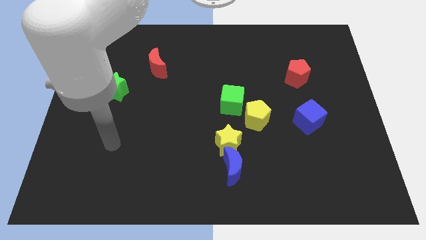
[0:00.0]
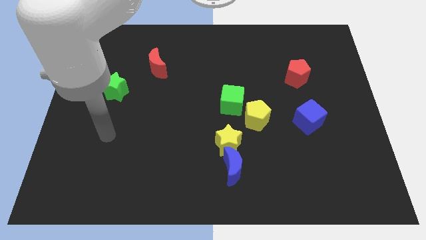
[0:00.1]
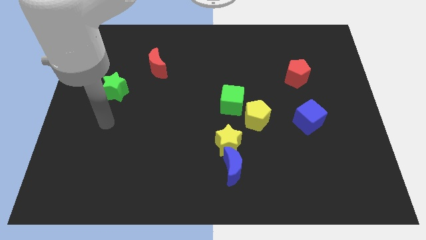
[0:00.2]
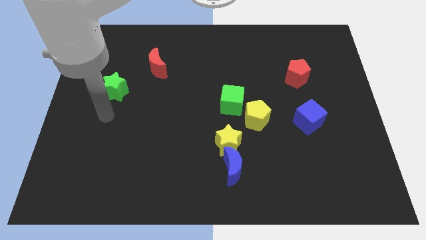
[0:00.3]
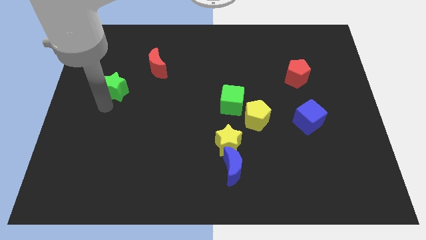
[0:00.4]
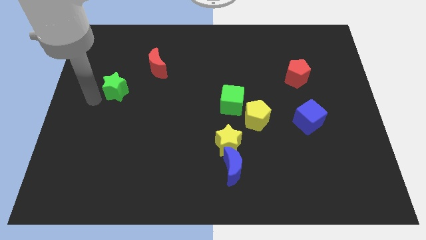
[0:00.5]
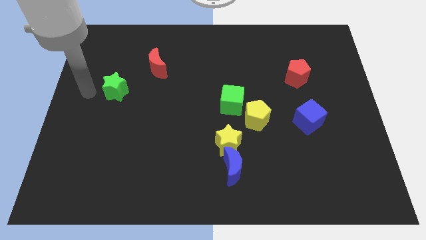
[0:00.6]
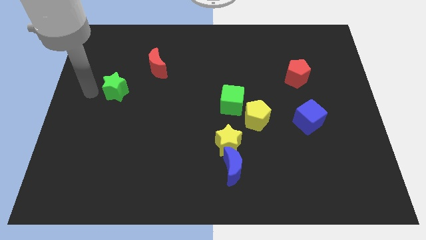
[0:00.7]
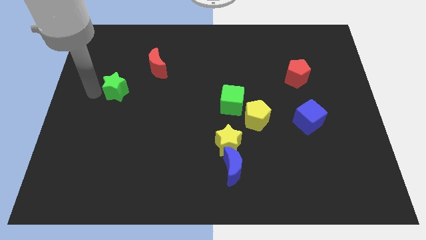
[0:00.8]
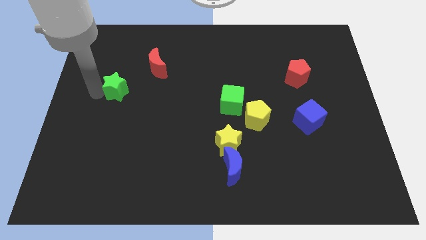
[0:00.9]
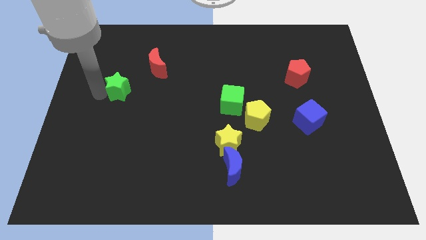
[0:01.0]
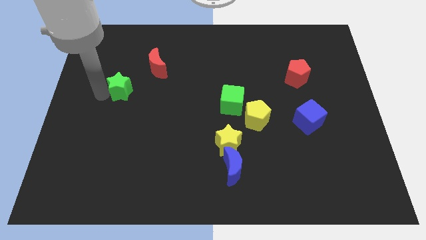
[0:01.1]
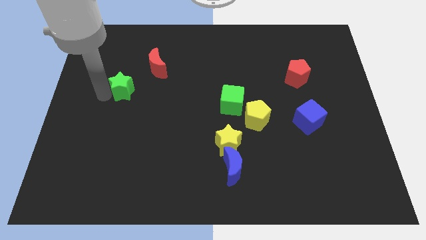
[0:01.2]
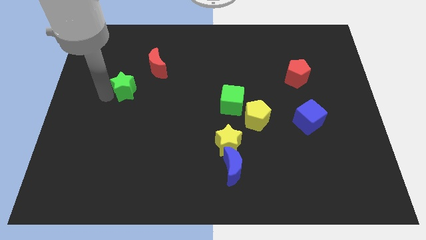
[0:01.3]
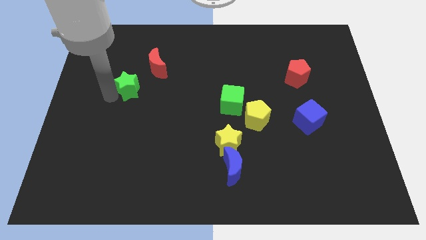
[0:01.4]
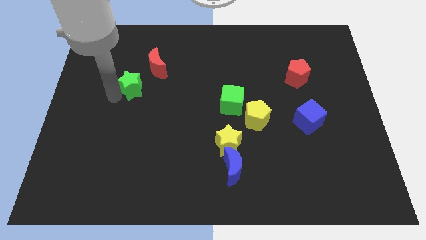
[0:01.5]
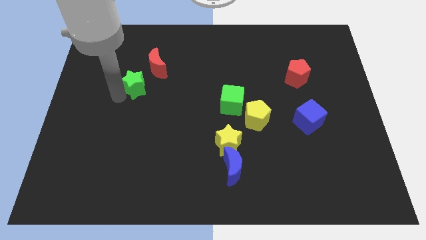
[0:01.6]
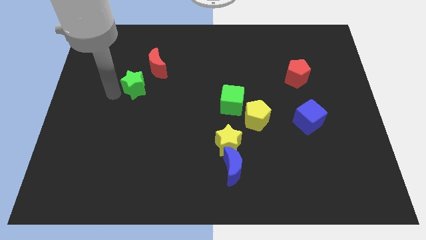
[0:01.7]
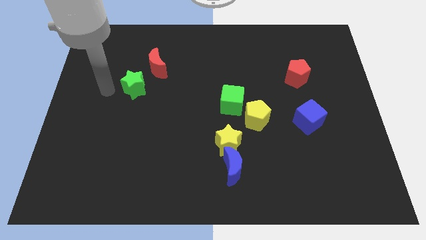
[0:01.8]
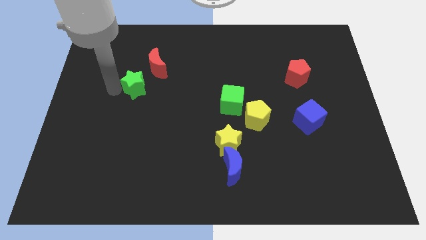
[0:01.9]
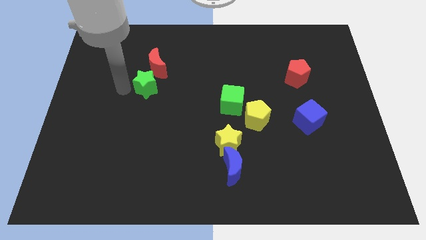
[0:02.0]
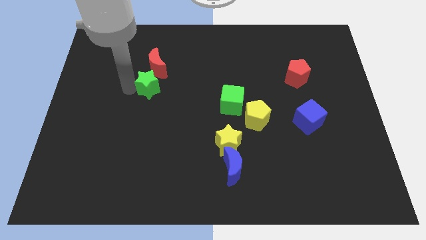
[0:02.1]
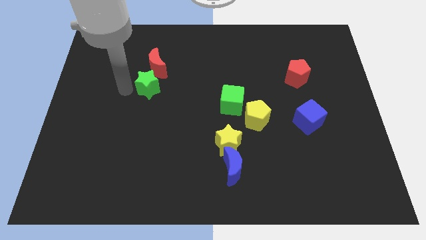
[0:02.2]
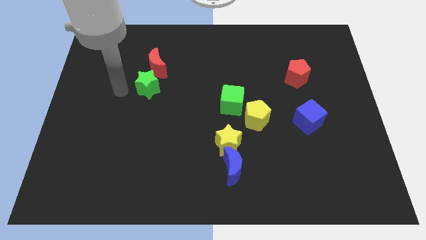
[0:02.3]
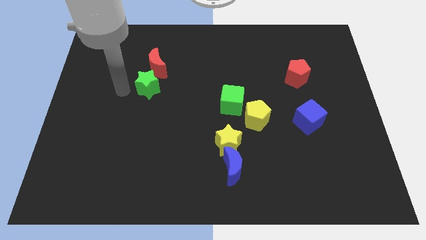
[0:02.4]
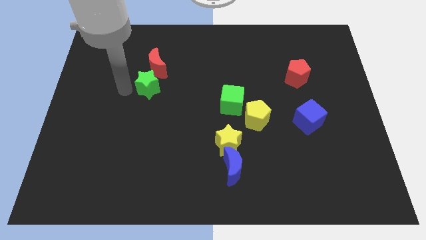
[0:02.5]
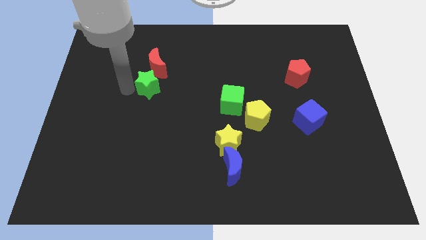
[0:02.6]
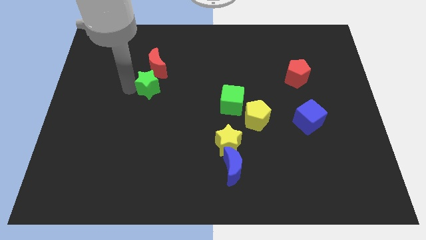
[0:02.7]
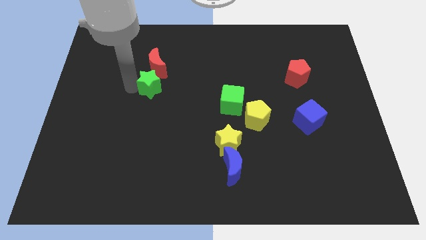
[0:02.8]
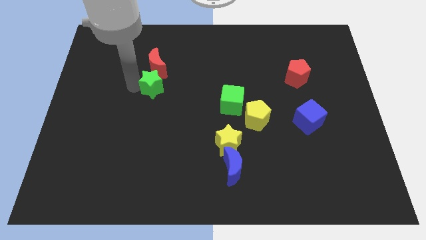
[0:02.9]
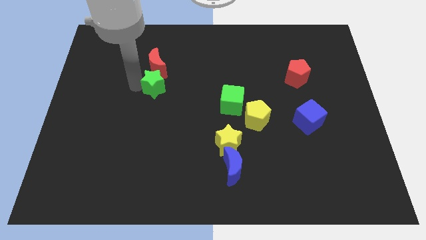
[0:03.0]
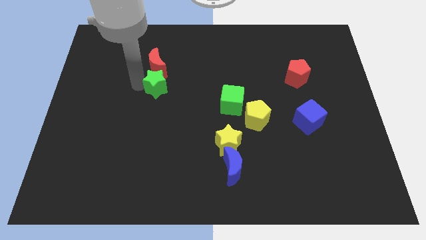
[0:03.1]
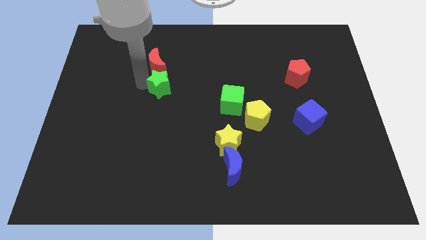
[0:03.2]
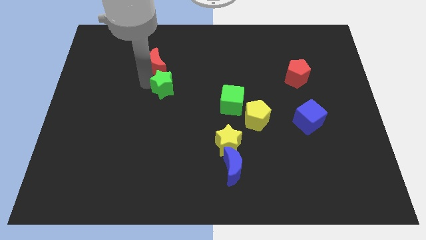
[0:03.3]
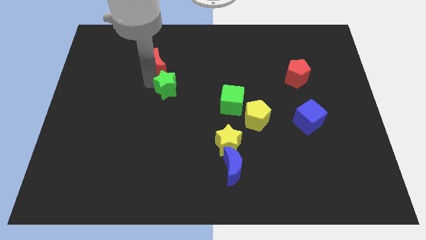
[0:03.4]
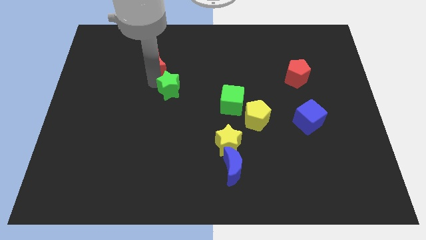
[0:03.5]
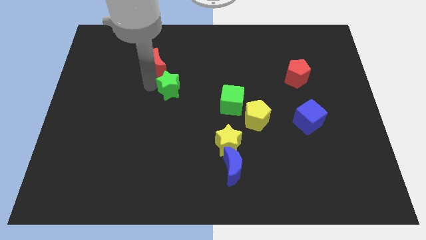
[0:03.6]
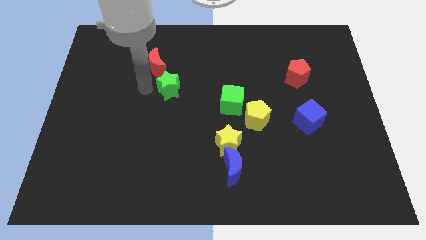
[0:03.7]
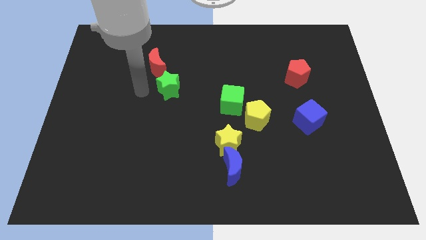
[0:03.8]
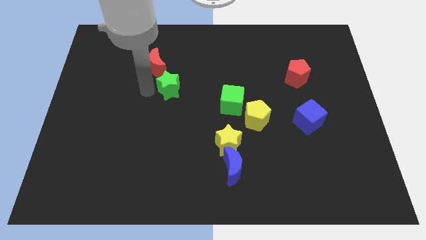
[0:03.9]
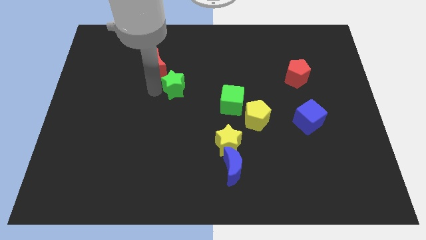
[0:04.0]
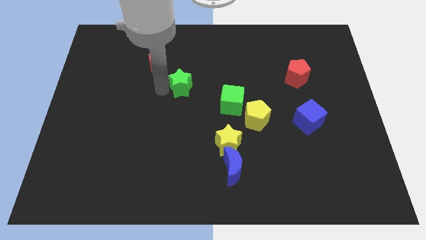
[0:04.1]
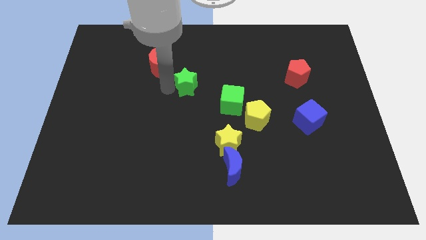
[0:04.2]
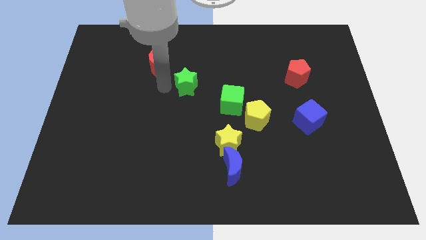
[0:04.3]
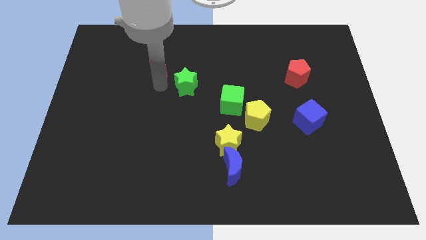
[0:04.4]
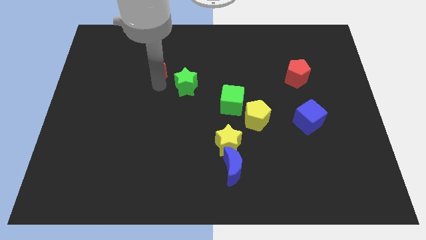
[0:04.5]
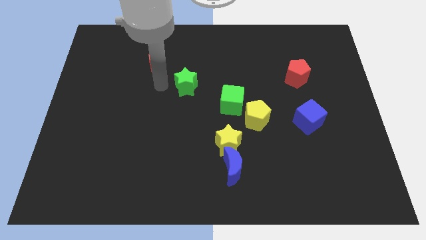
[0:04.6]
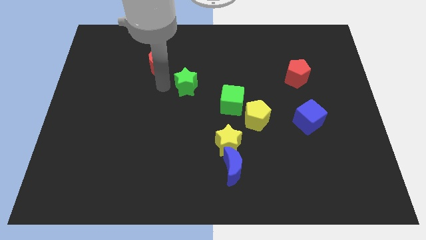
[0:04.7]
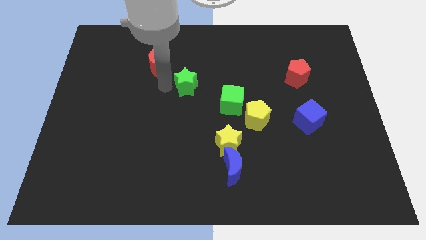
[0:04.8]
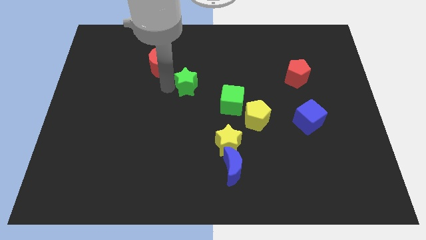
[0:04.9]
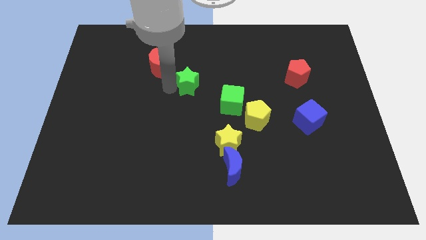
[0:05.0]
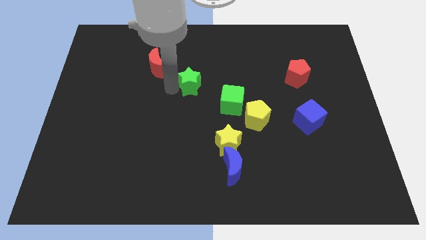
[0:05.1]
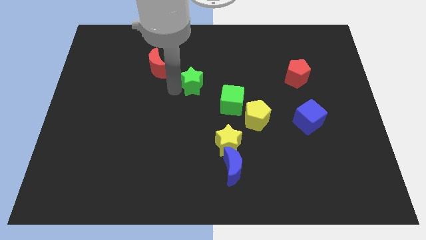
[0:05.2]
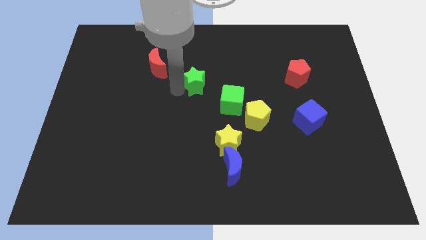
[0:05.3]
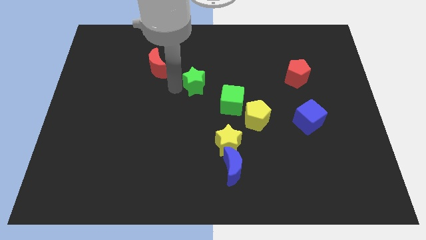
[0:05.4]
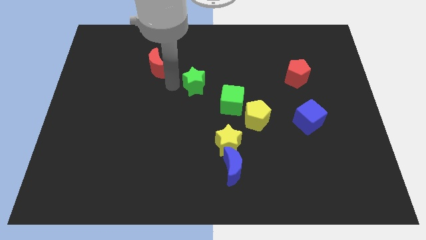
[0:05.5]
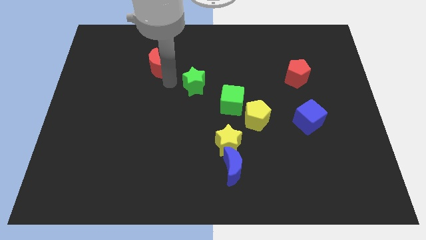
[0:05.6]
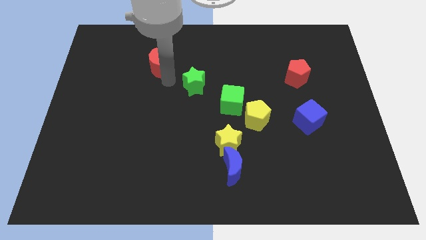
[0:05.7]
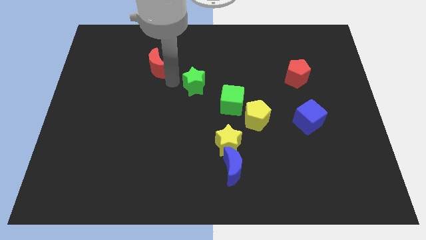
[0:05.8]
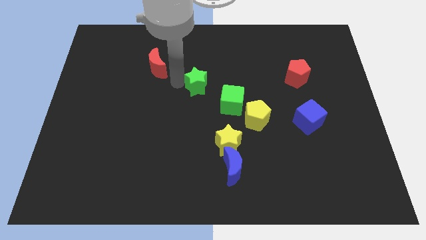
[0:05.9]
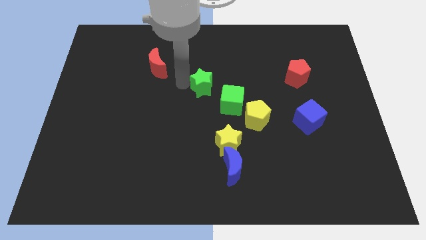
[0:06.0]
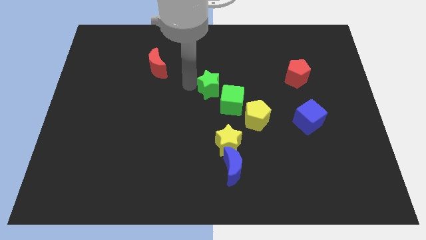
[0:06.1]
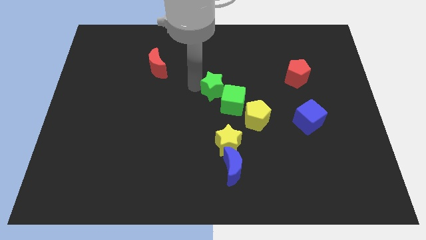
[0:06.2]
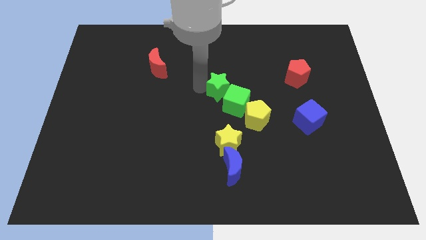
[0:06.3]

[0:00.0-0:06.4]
put the green star above the yellow star
